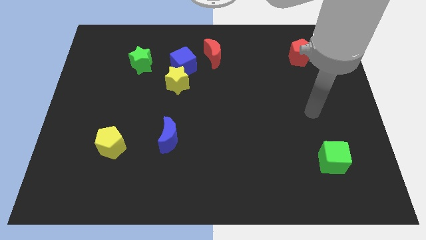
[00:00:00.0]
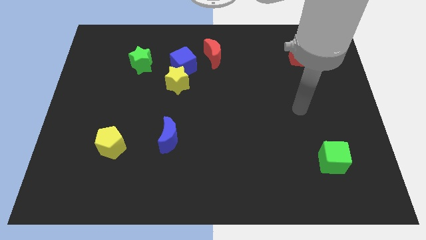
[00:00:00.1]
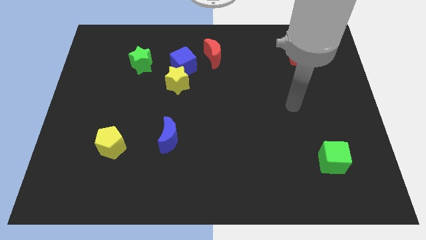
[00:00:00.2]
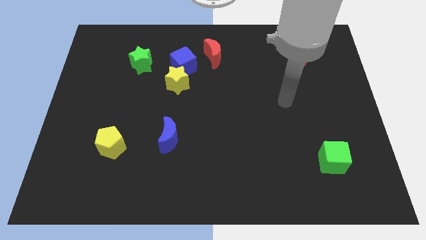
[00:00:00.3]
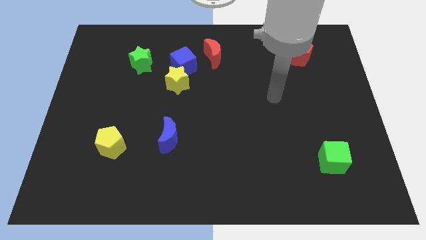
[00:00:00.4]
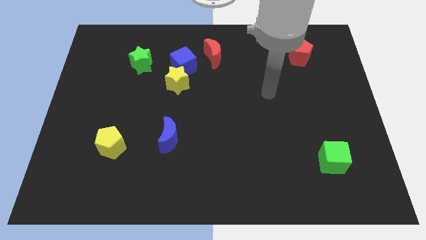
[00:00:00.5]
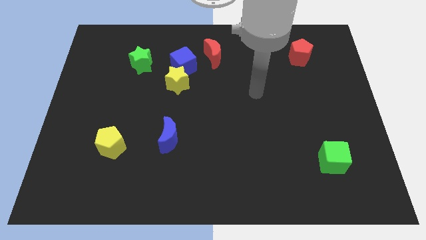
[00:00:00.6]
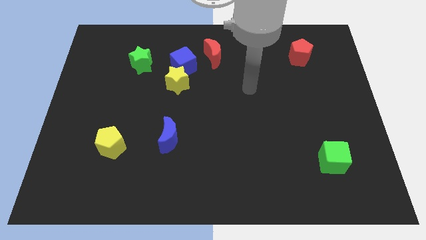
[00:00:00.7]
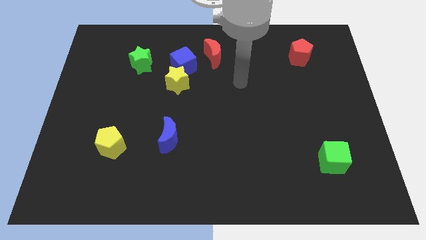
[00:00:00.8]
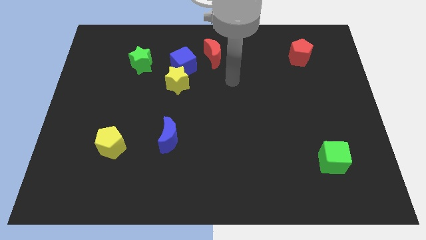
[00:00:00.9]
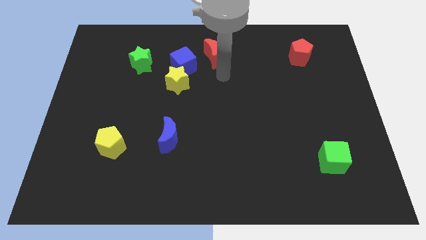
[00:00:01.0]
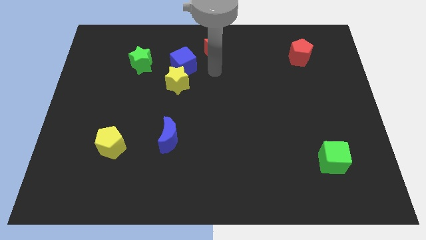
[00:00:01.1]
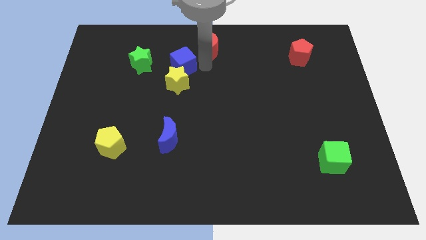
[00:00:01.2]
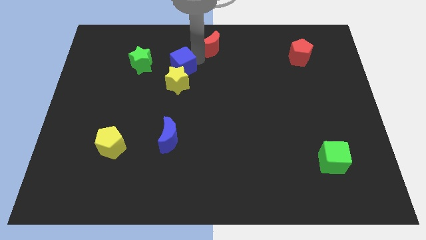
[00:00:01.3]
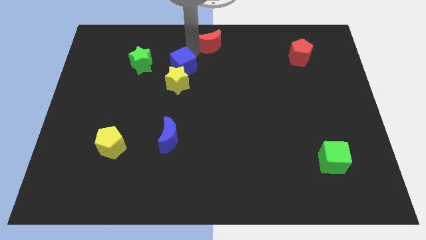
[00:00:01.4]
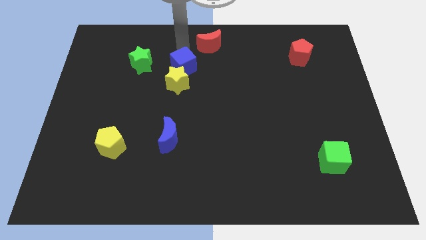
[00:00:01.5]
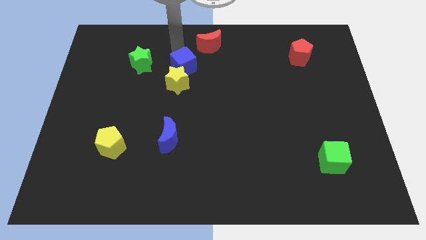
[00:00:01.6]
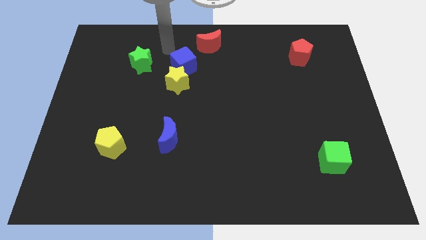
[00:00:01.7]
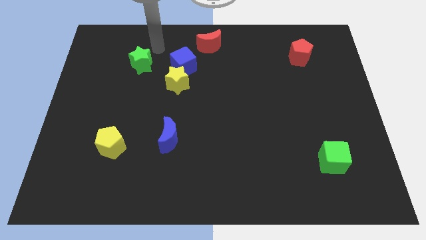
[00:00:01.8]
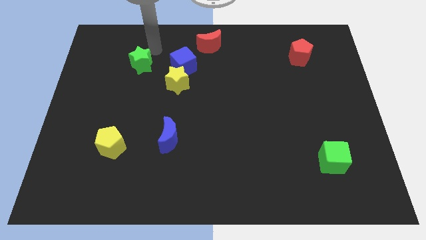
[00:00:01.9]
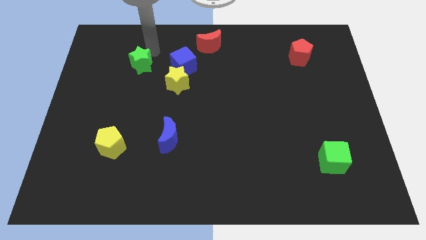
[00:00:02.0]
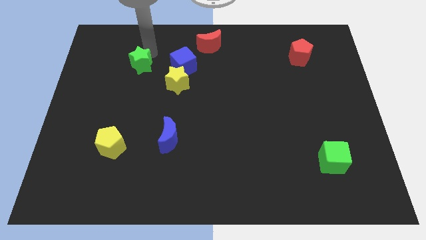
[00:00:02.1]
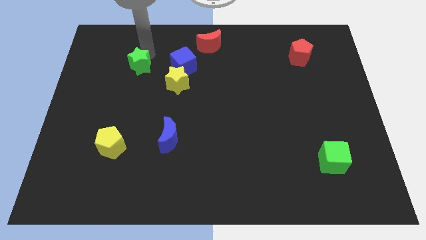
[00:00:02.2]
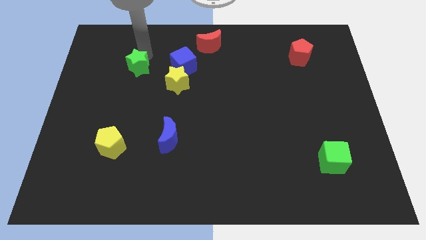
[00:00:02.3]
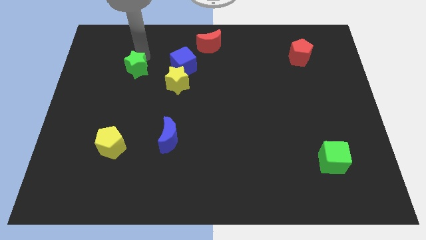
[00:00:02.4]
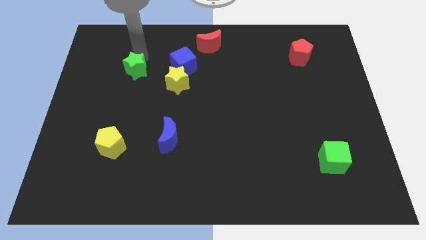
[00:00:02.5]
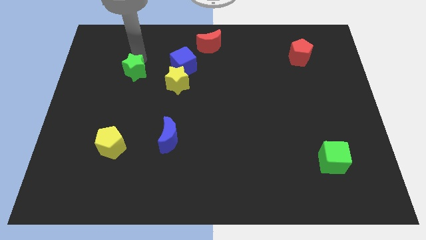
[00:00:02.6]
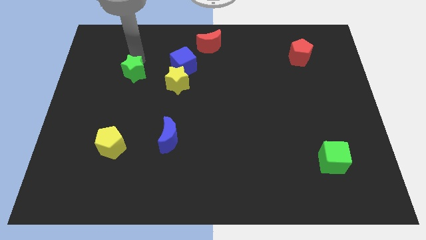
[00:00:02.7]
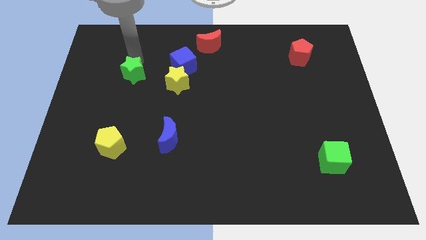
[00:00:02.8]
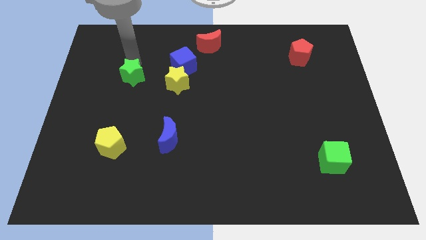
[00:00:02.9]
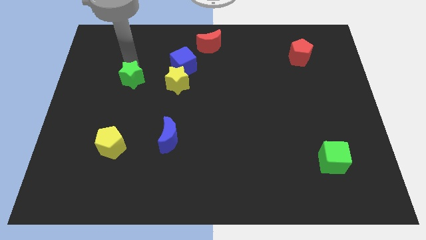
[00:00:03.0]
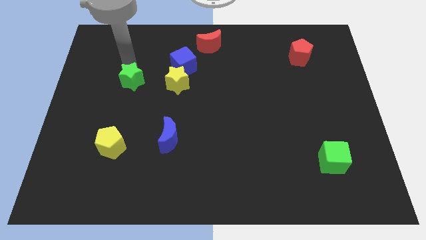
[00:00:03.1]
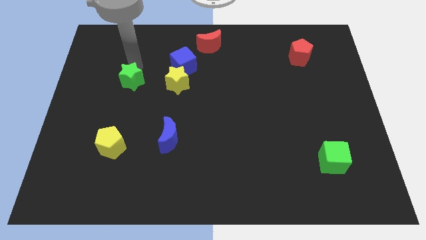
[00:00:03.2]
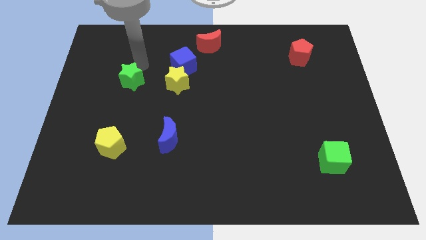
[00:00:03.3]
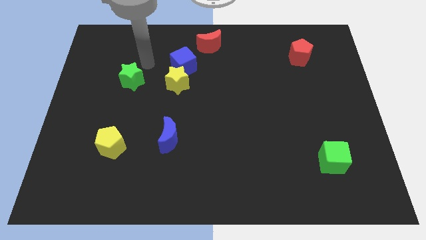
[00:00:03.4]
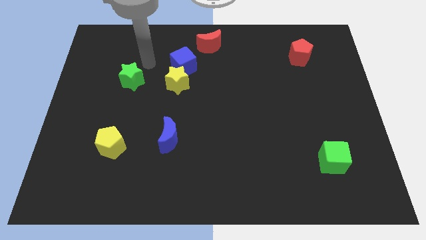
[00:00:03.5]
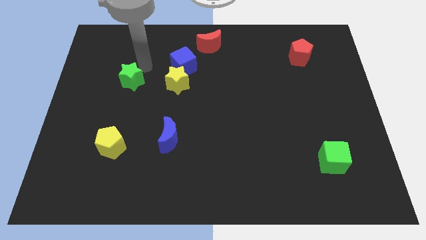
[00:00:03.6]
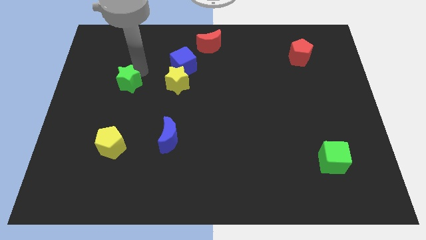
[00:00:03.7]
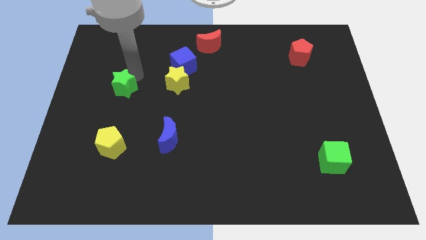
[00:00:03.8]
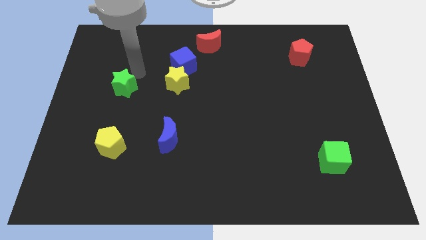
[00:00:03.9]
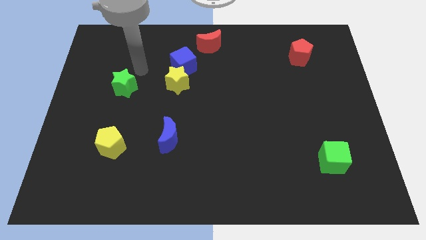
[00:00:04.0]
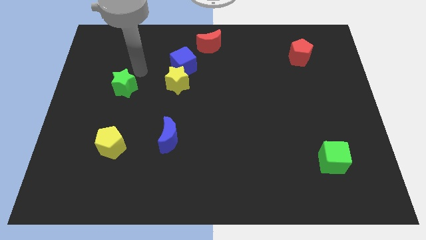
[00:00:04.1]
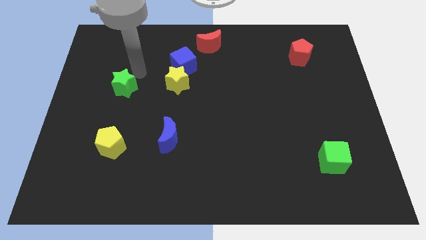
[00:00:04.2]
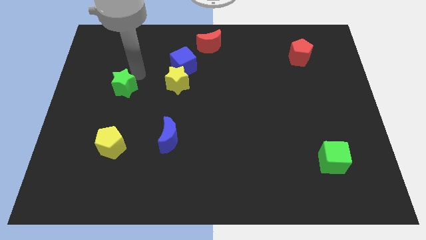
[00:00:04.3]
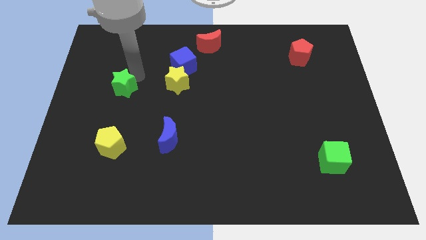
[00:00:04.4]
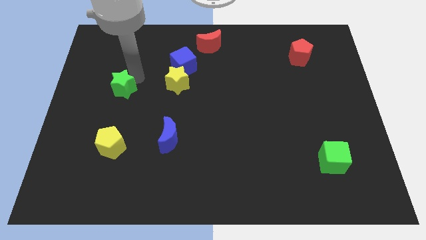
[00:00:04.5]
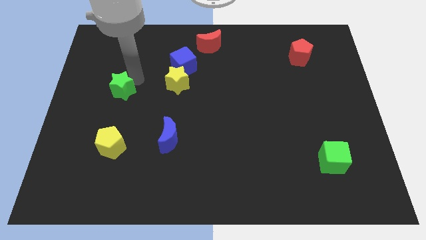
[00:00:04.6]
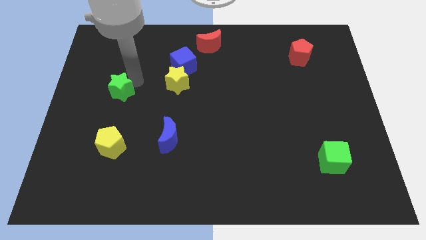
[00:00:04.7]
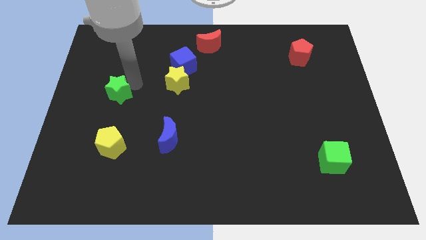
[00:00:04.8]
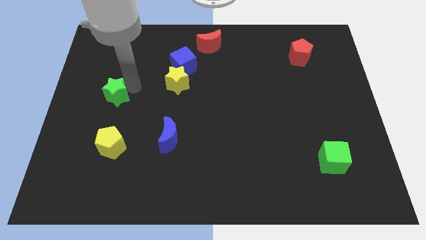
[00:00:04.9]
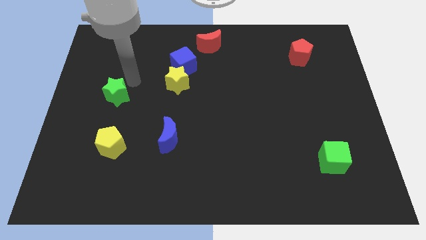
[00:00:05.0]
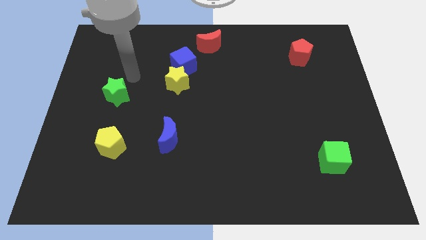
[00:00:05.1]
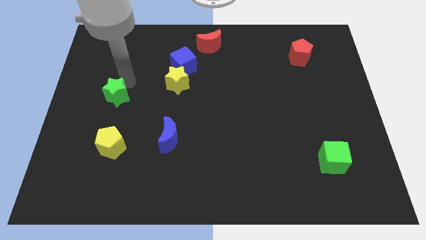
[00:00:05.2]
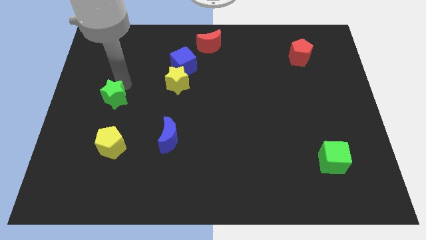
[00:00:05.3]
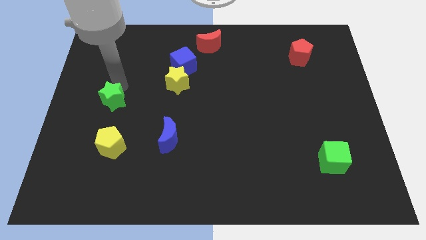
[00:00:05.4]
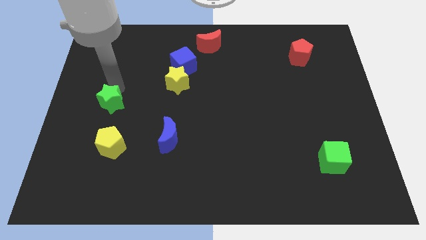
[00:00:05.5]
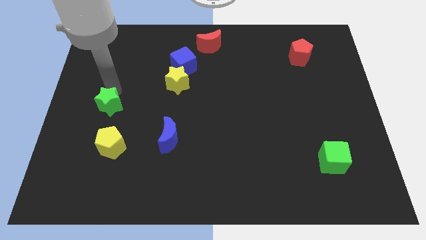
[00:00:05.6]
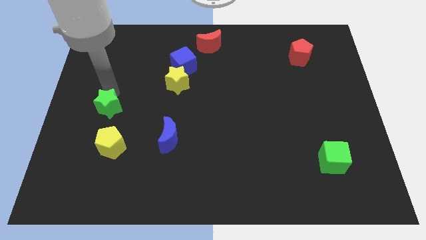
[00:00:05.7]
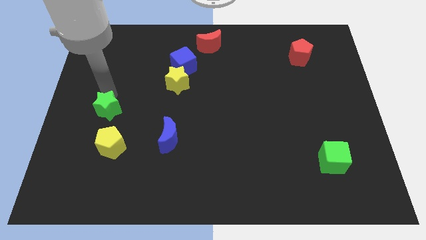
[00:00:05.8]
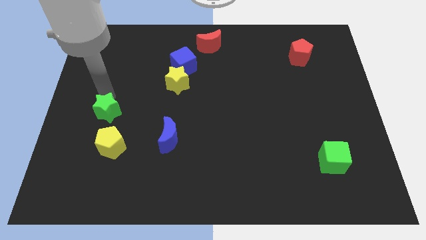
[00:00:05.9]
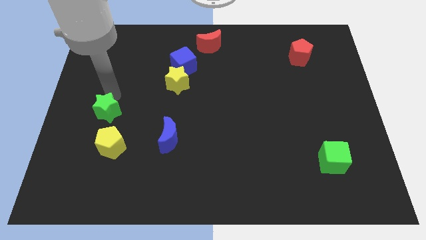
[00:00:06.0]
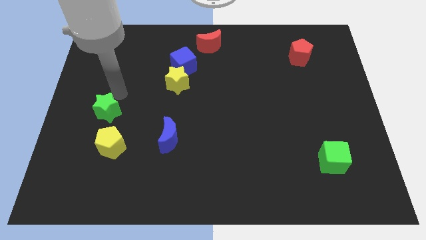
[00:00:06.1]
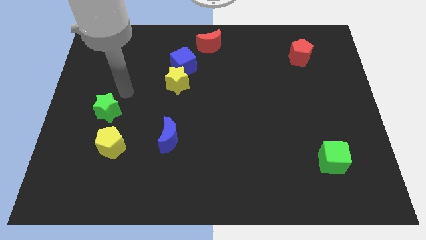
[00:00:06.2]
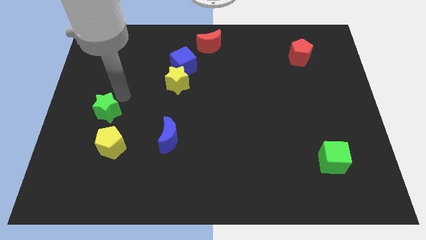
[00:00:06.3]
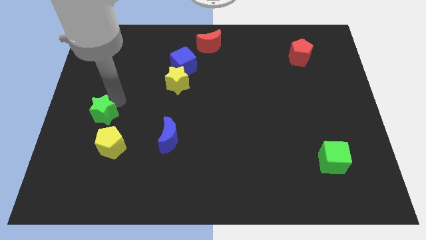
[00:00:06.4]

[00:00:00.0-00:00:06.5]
put the green star to the top left side of the yellow pentagon
